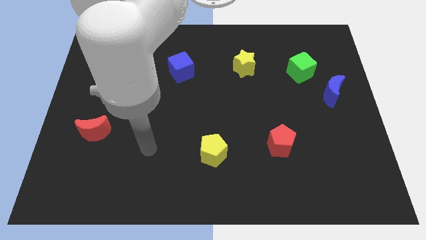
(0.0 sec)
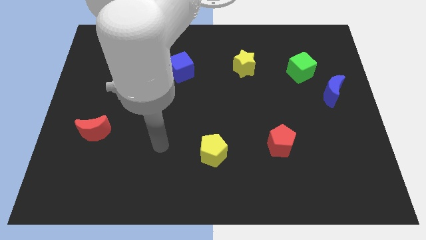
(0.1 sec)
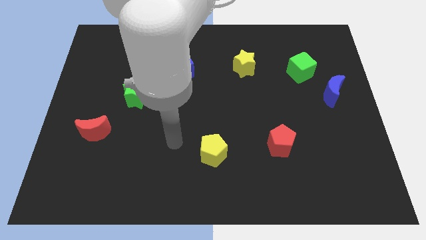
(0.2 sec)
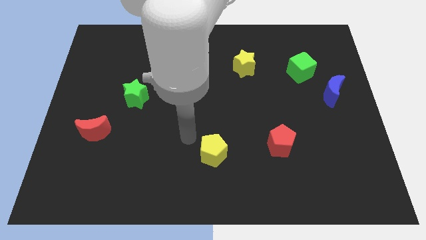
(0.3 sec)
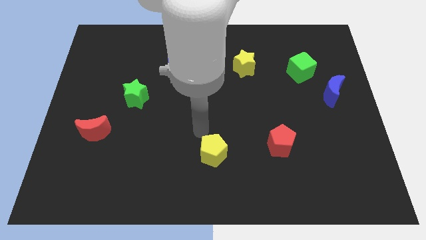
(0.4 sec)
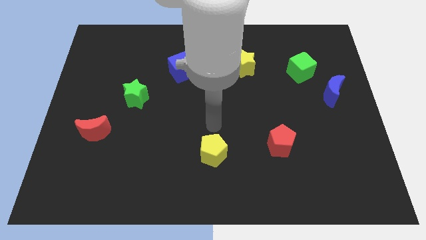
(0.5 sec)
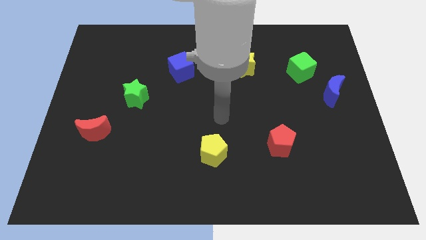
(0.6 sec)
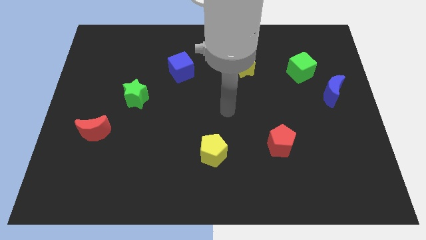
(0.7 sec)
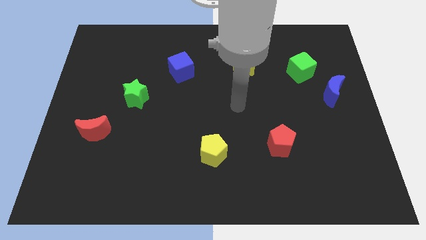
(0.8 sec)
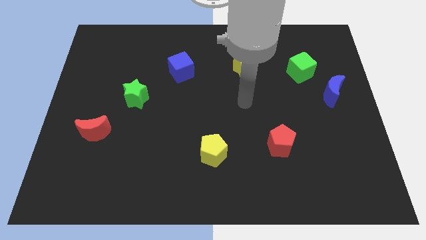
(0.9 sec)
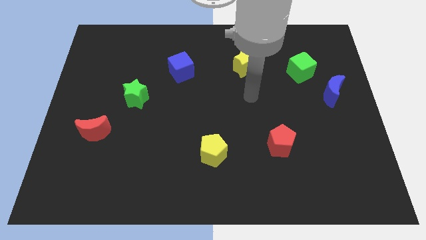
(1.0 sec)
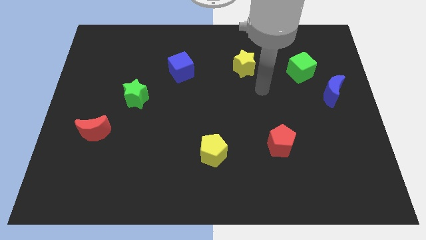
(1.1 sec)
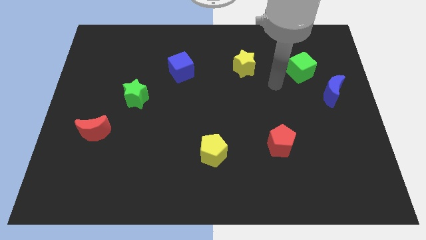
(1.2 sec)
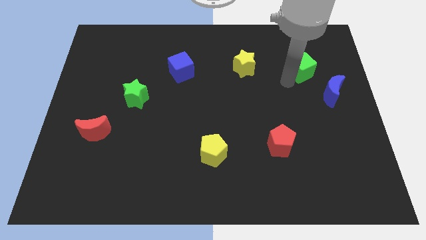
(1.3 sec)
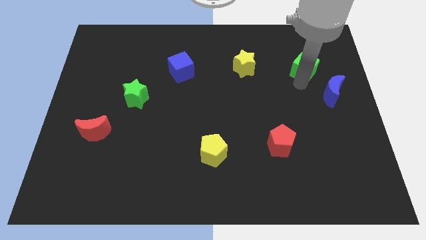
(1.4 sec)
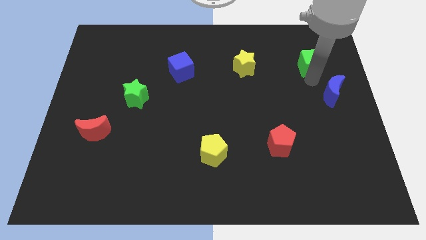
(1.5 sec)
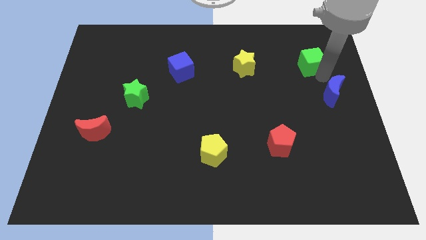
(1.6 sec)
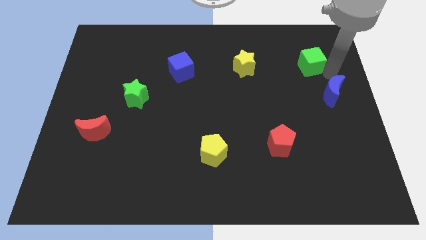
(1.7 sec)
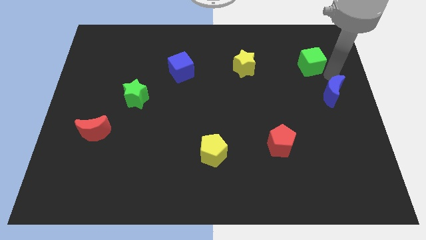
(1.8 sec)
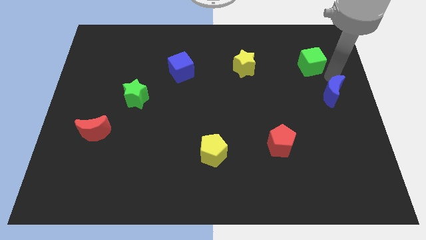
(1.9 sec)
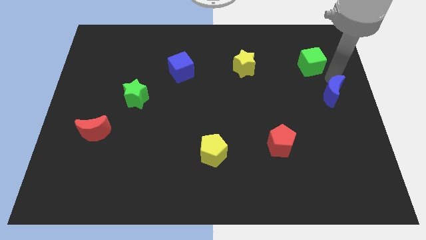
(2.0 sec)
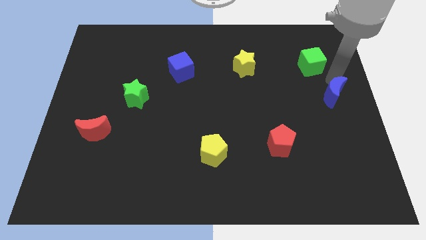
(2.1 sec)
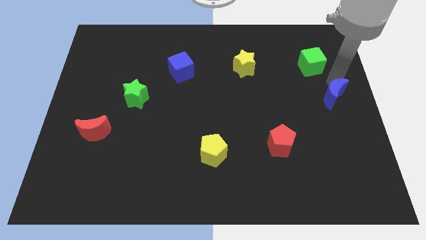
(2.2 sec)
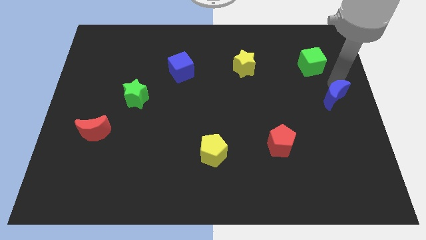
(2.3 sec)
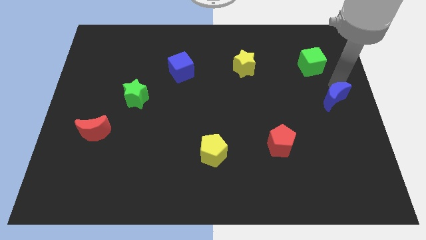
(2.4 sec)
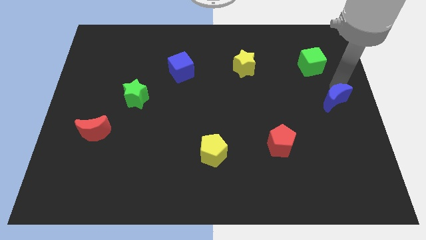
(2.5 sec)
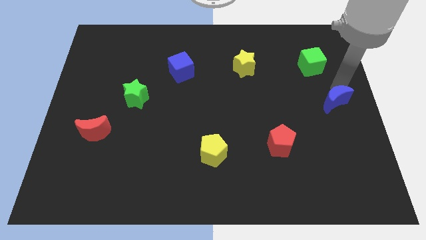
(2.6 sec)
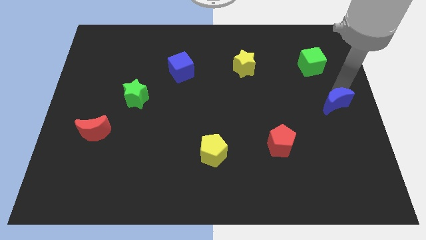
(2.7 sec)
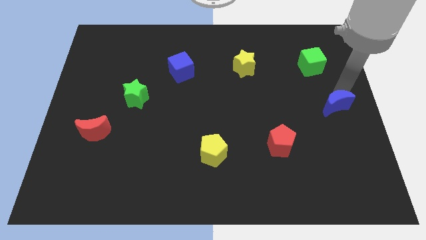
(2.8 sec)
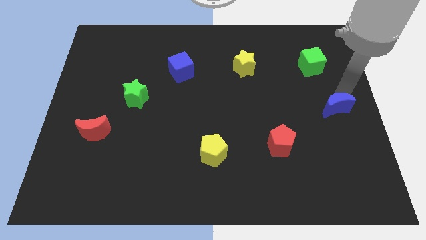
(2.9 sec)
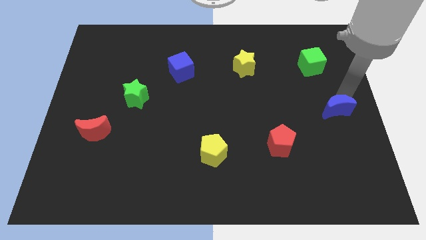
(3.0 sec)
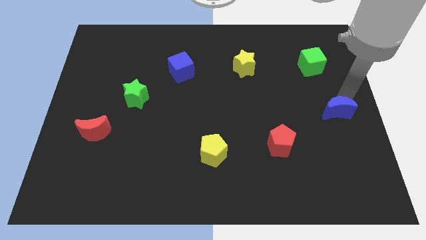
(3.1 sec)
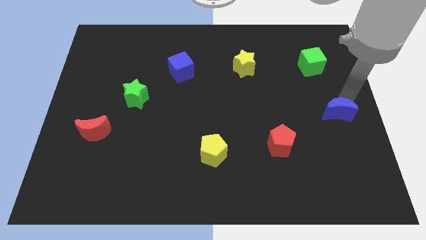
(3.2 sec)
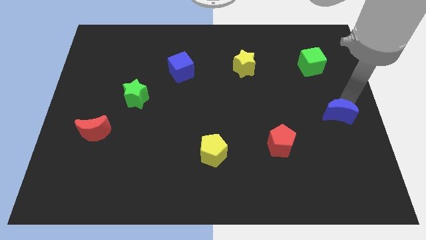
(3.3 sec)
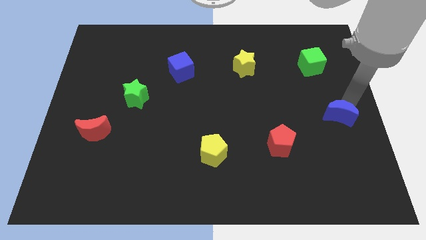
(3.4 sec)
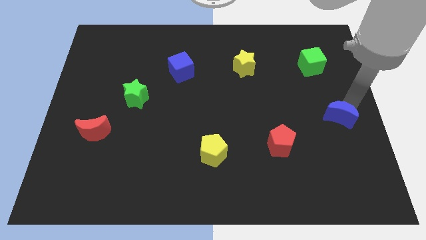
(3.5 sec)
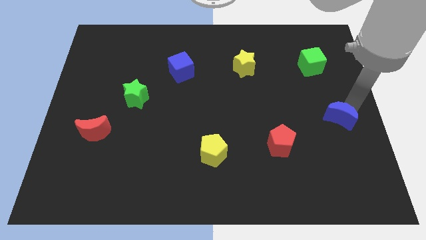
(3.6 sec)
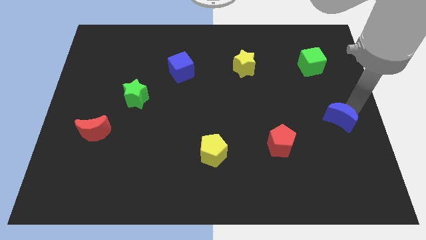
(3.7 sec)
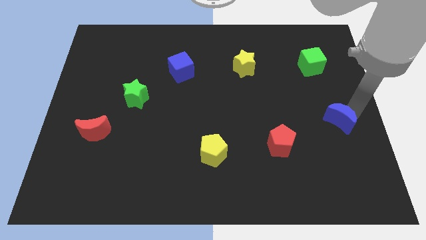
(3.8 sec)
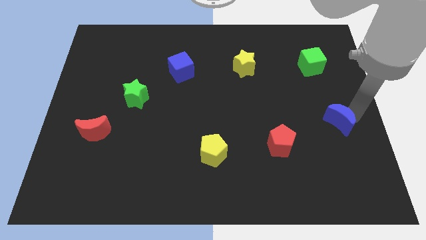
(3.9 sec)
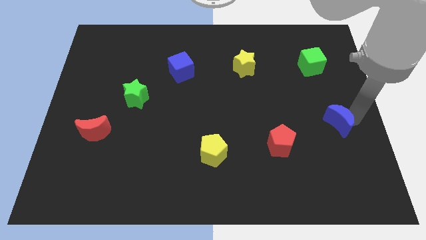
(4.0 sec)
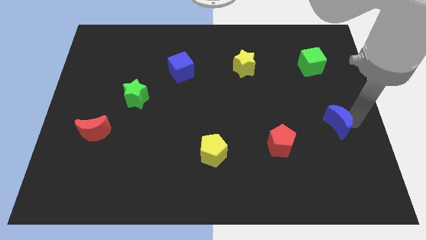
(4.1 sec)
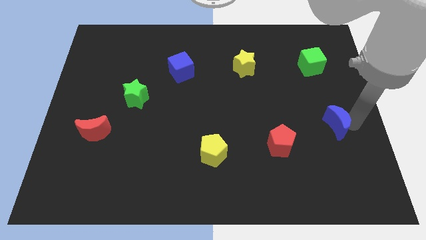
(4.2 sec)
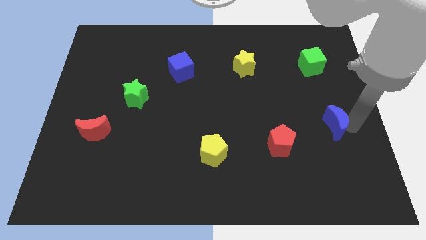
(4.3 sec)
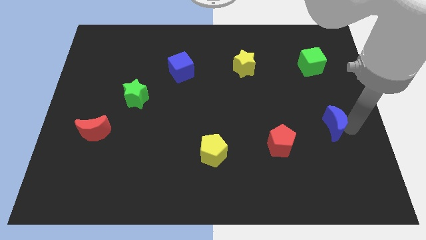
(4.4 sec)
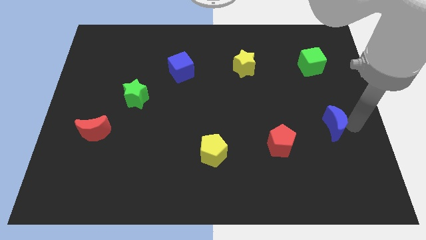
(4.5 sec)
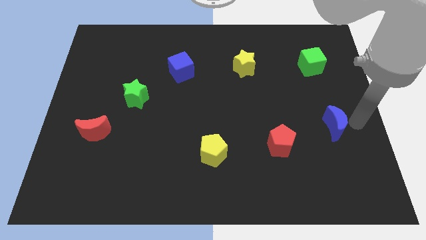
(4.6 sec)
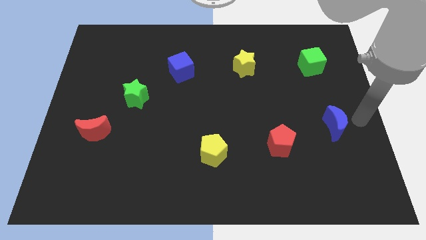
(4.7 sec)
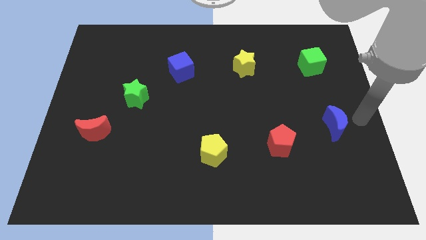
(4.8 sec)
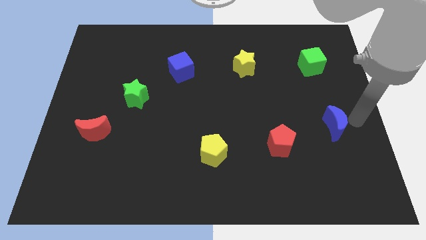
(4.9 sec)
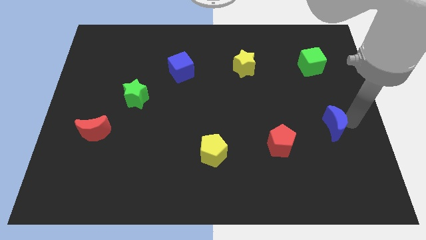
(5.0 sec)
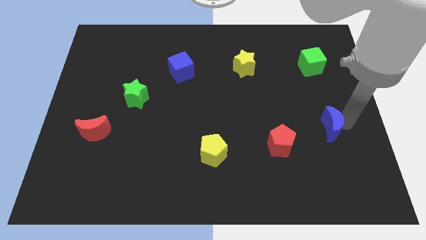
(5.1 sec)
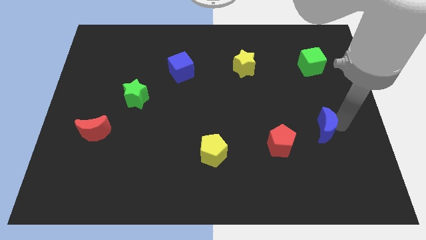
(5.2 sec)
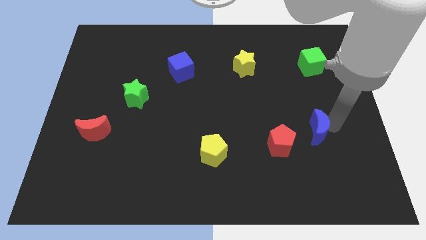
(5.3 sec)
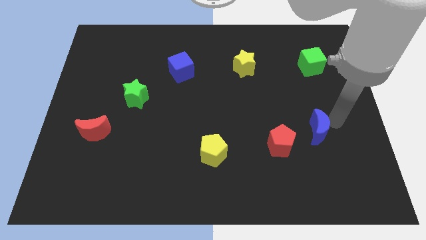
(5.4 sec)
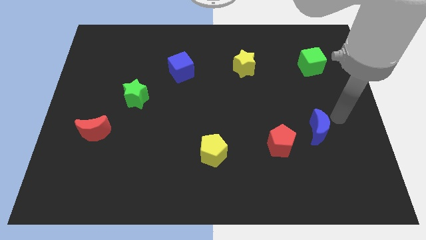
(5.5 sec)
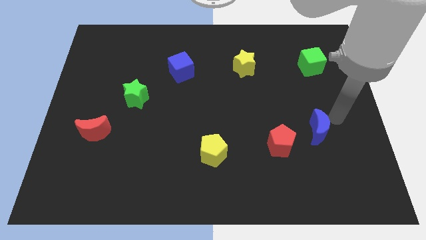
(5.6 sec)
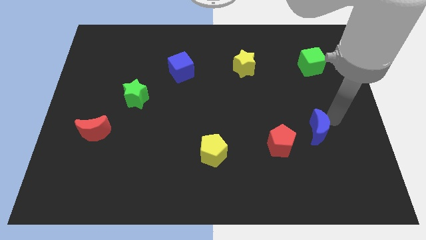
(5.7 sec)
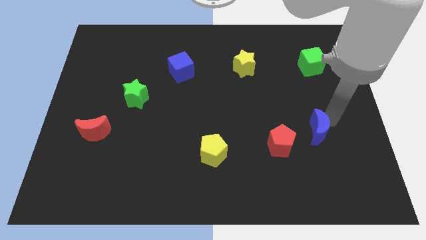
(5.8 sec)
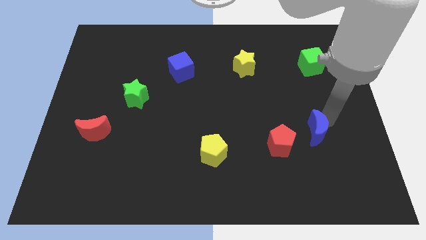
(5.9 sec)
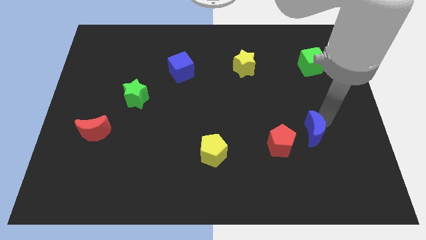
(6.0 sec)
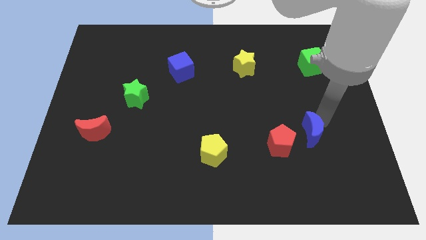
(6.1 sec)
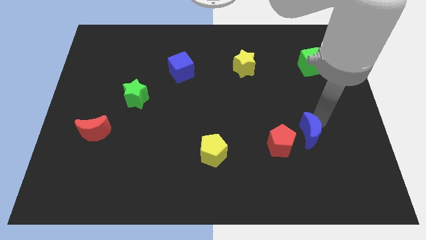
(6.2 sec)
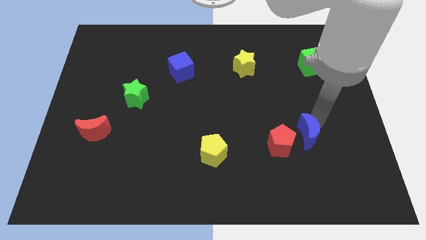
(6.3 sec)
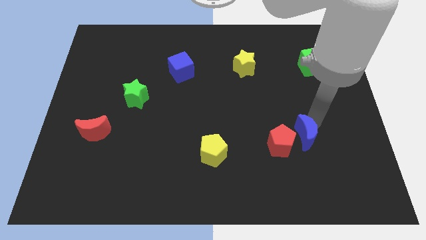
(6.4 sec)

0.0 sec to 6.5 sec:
put the blue moon next to the red pentagon

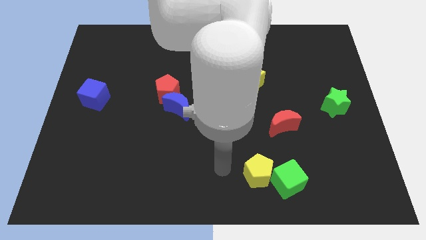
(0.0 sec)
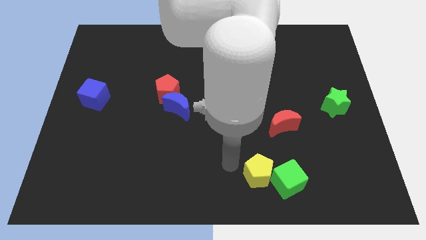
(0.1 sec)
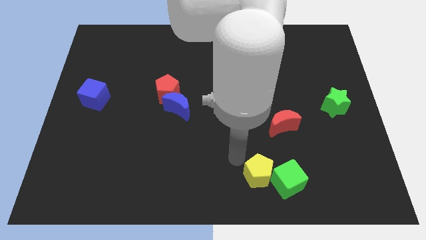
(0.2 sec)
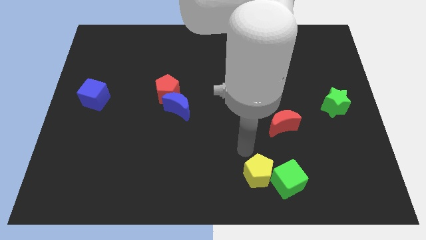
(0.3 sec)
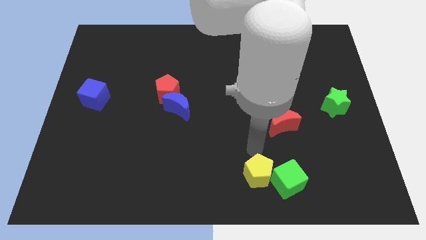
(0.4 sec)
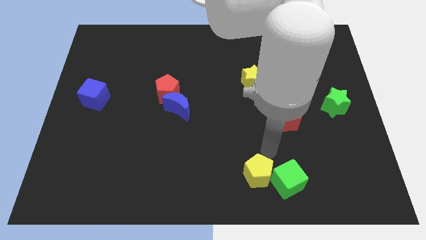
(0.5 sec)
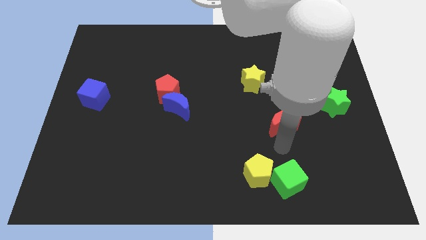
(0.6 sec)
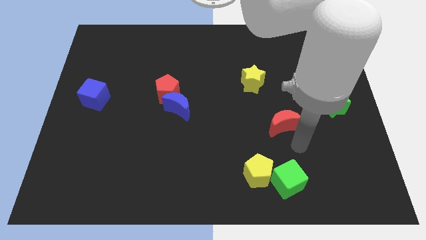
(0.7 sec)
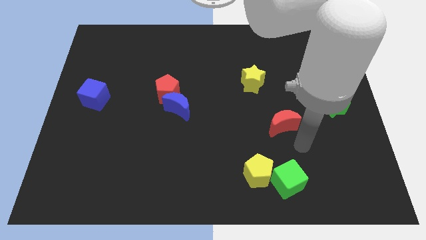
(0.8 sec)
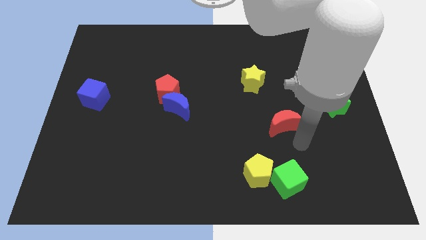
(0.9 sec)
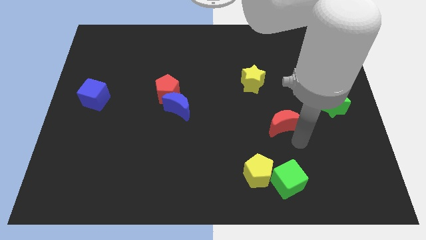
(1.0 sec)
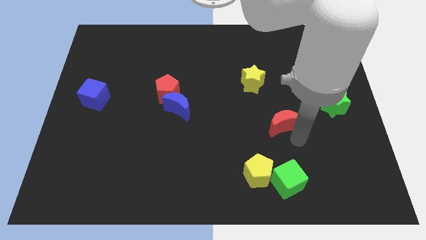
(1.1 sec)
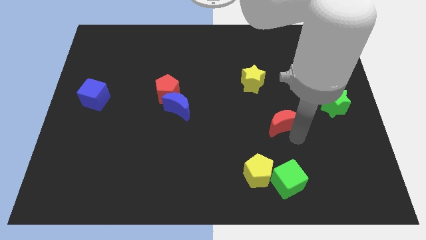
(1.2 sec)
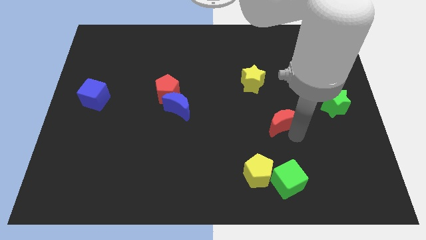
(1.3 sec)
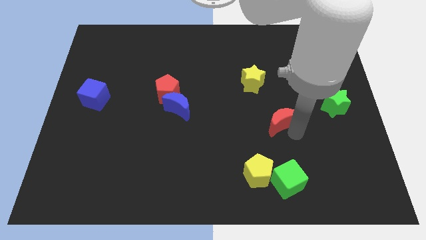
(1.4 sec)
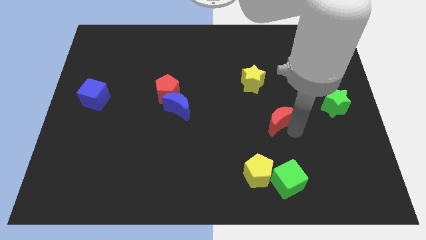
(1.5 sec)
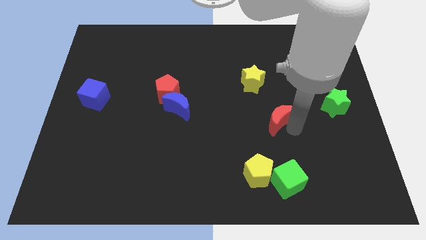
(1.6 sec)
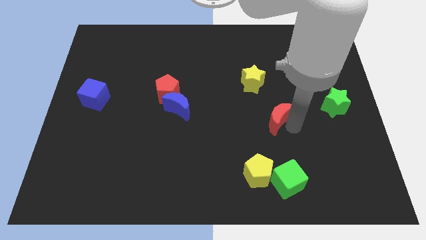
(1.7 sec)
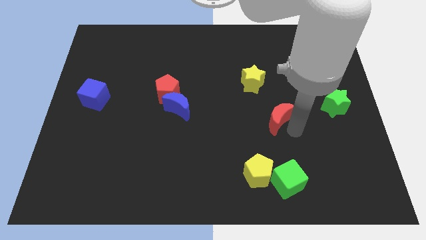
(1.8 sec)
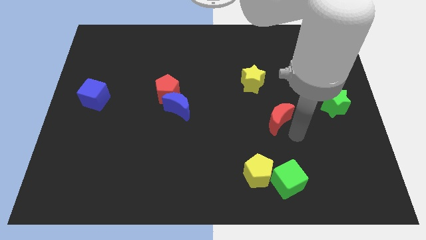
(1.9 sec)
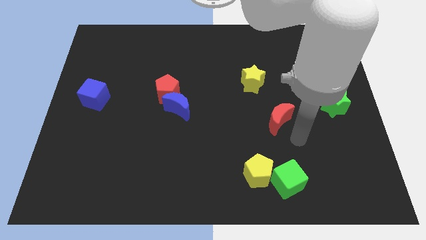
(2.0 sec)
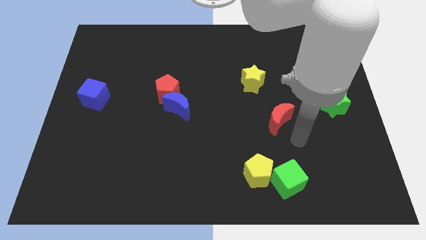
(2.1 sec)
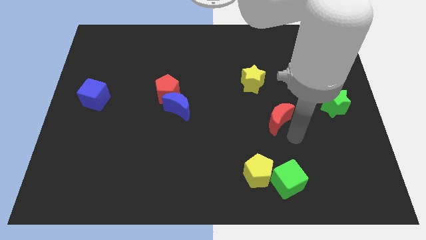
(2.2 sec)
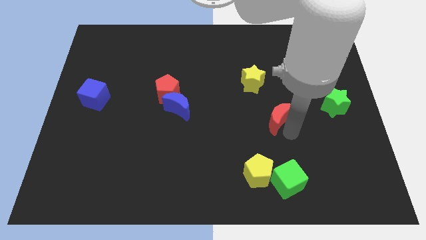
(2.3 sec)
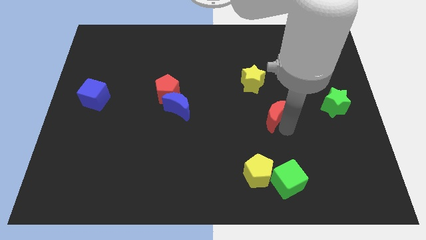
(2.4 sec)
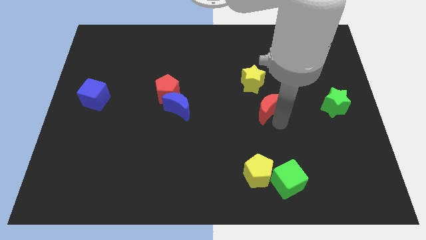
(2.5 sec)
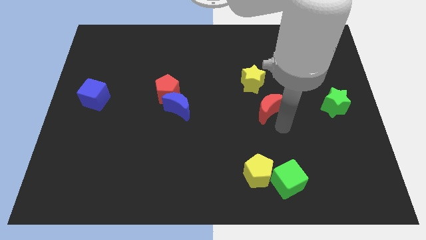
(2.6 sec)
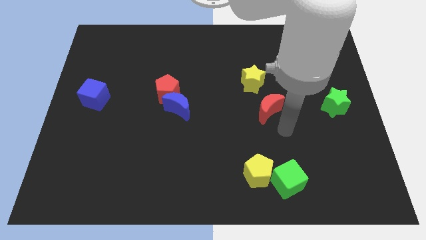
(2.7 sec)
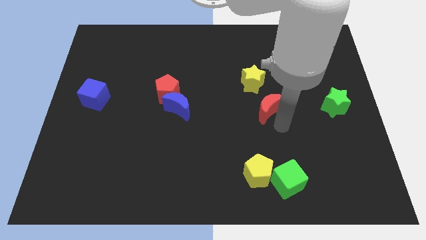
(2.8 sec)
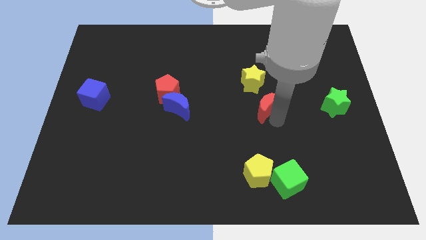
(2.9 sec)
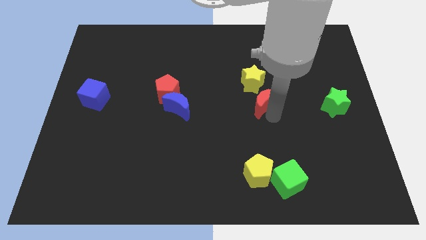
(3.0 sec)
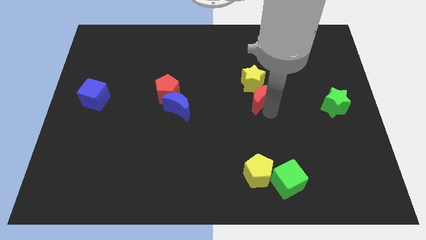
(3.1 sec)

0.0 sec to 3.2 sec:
push the red moon to the yellow star
